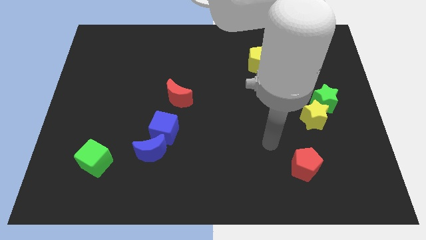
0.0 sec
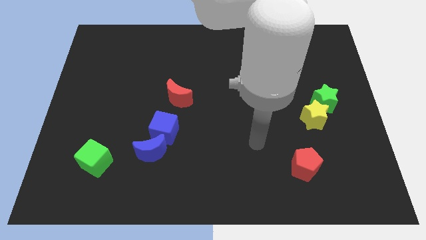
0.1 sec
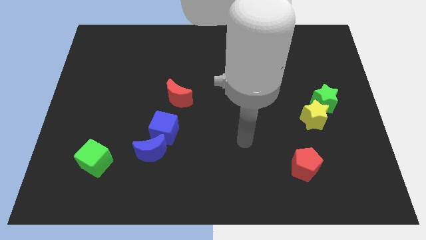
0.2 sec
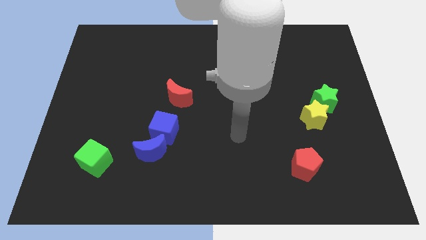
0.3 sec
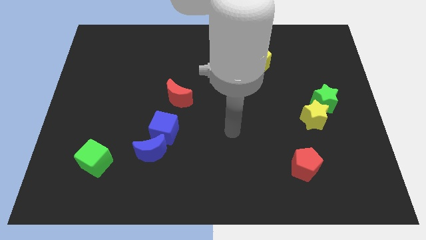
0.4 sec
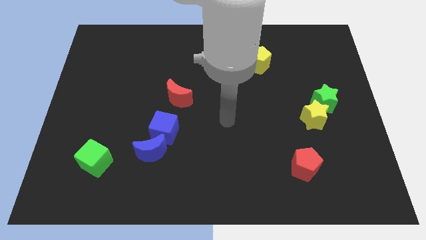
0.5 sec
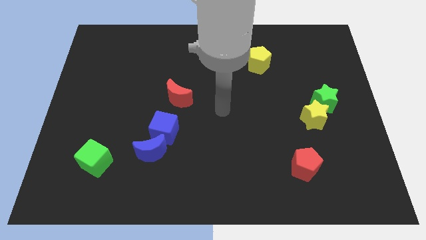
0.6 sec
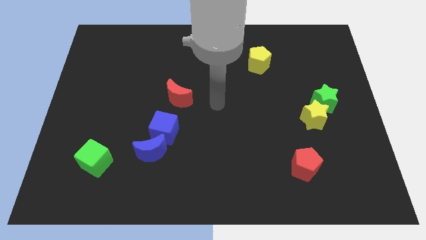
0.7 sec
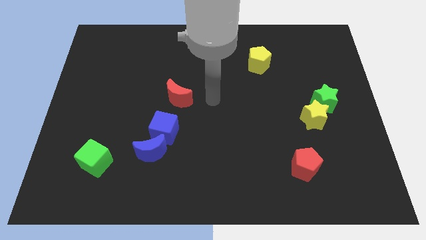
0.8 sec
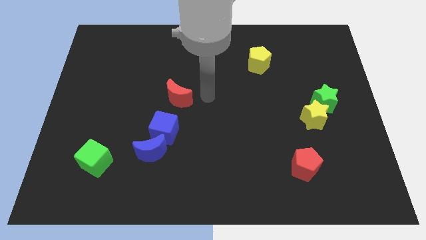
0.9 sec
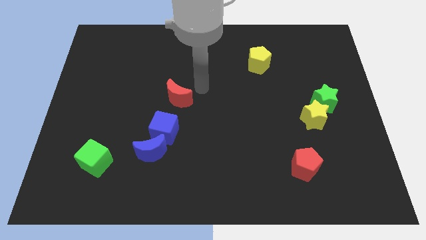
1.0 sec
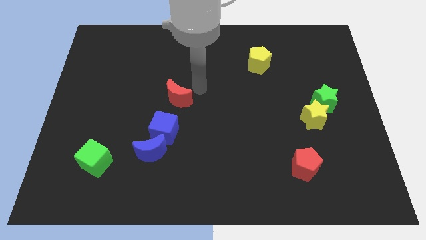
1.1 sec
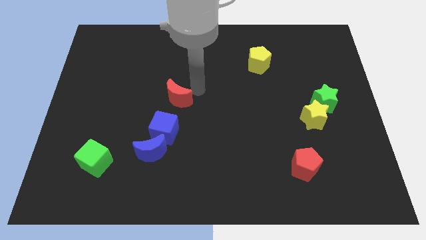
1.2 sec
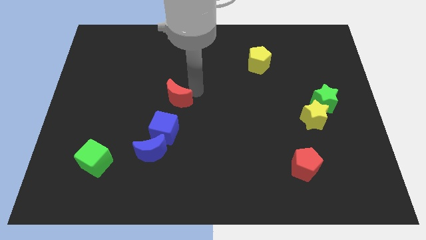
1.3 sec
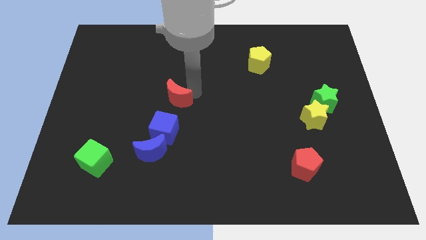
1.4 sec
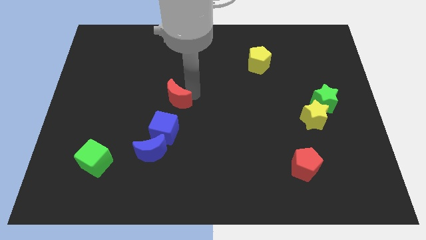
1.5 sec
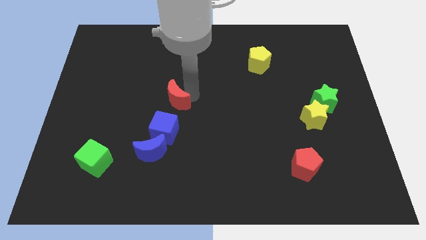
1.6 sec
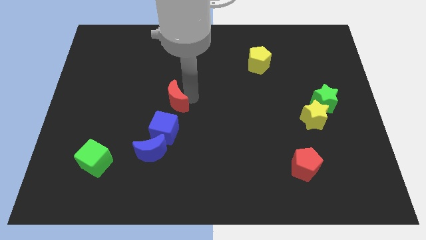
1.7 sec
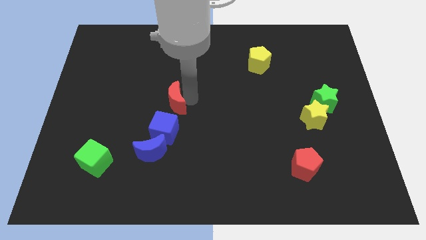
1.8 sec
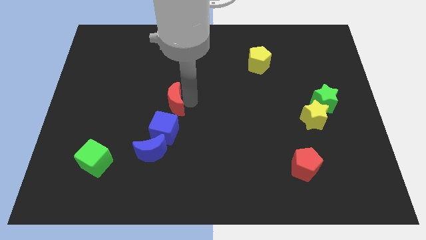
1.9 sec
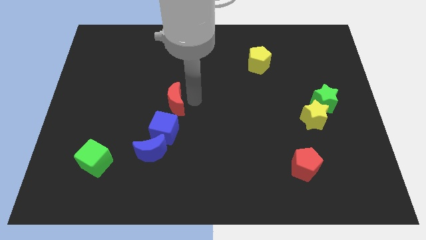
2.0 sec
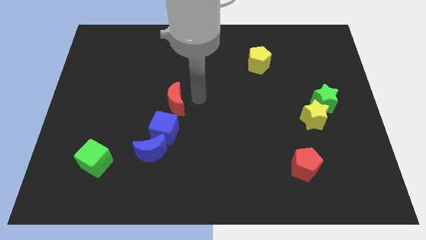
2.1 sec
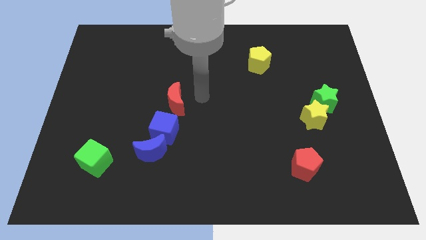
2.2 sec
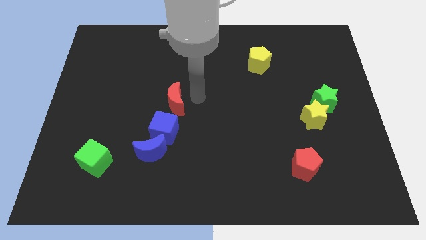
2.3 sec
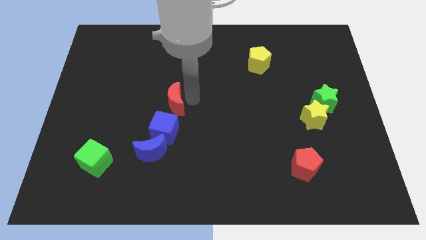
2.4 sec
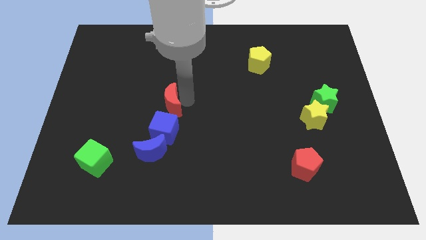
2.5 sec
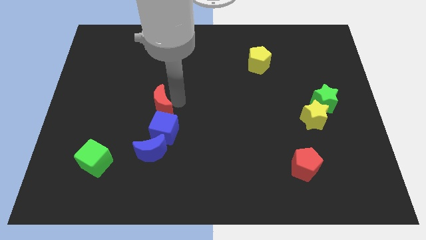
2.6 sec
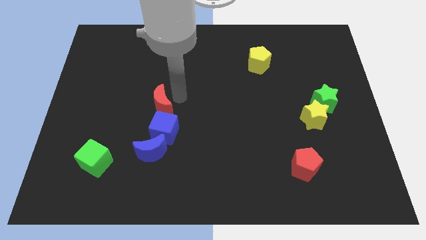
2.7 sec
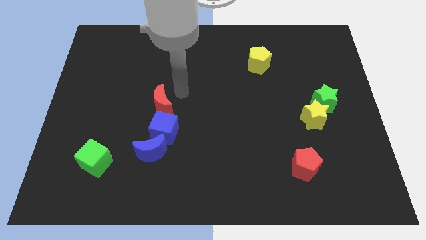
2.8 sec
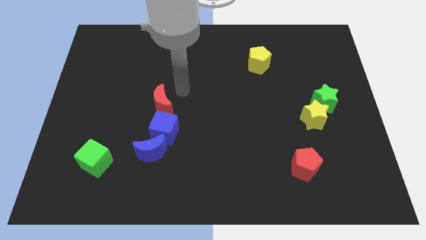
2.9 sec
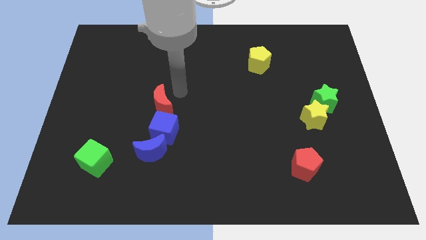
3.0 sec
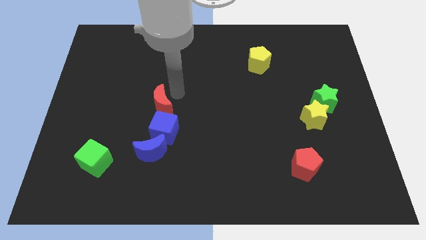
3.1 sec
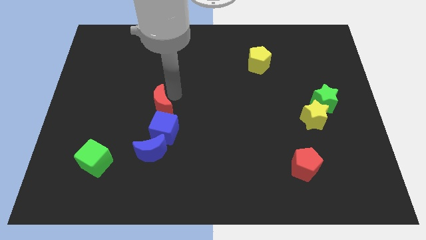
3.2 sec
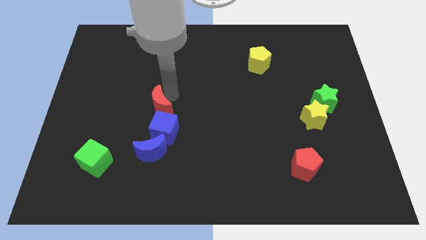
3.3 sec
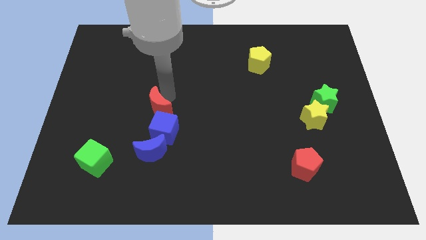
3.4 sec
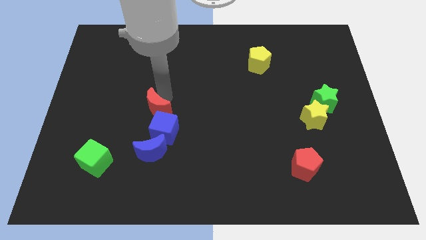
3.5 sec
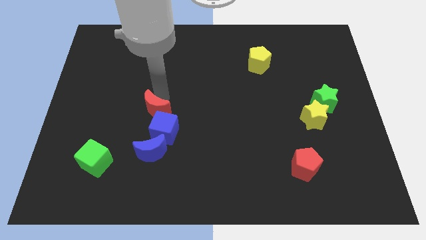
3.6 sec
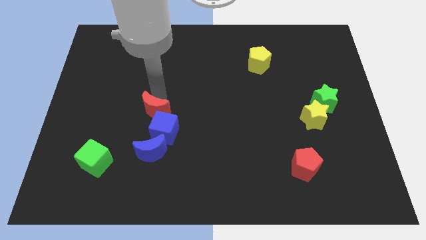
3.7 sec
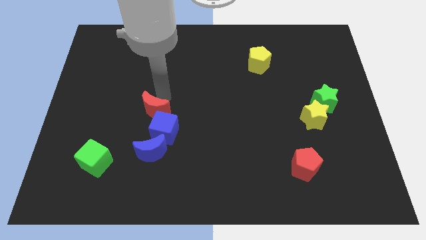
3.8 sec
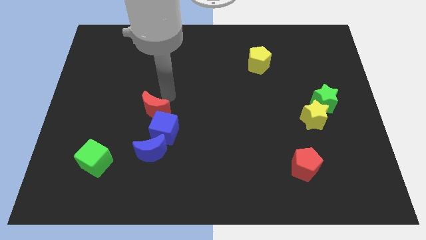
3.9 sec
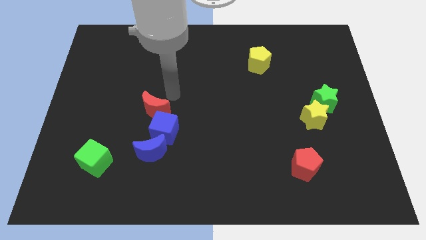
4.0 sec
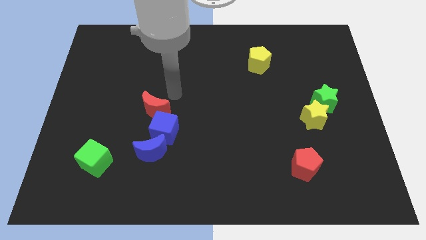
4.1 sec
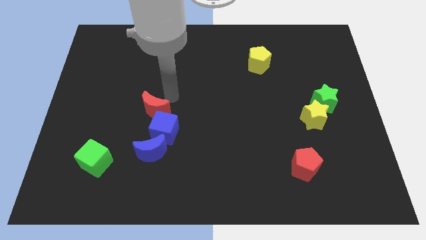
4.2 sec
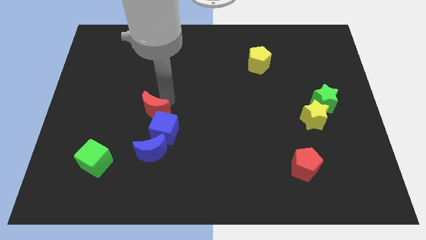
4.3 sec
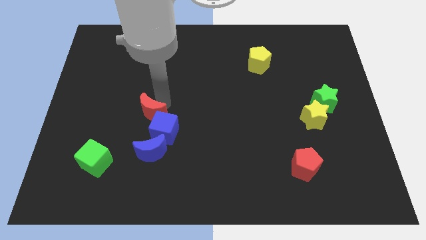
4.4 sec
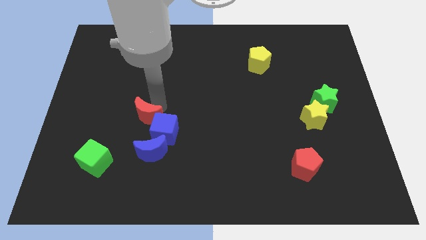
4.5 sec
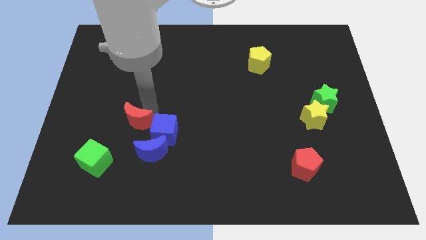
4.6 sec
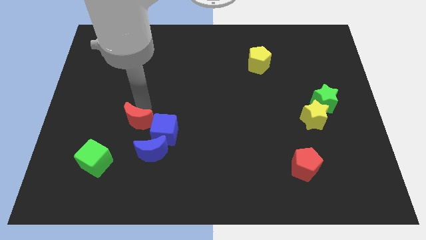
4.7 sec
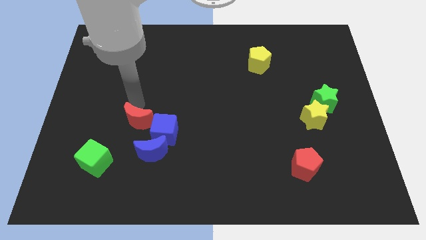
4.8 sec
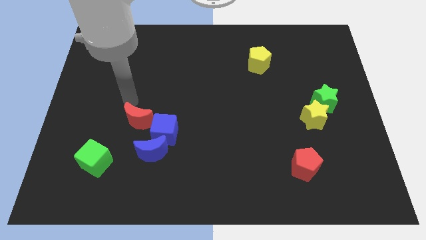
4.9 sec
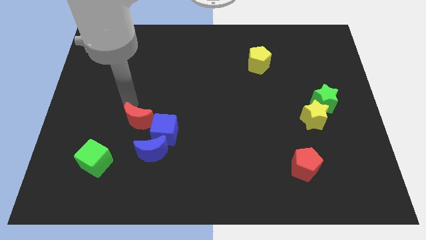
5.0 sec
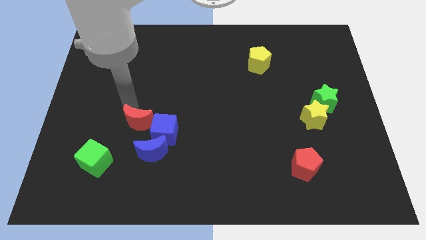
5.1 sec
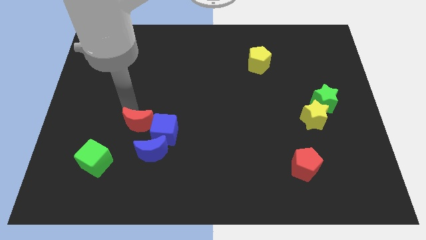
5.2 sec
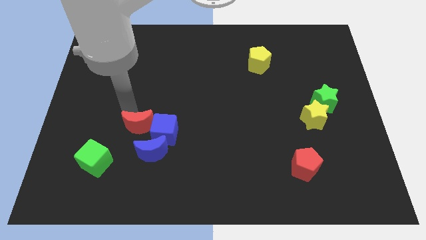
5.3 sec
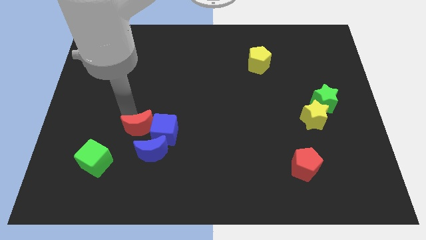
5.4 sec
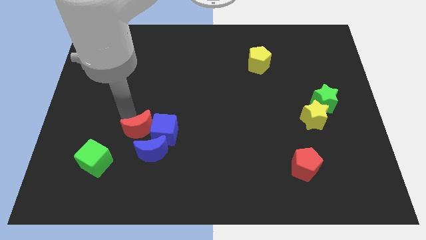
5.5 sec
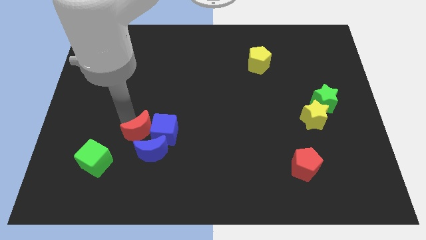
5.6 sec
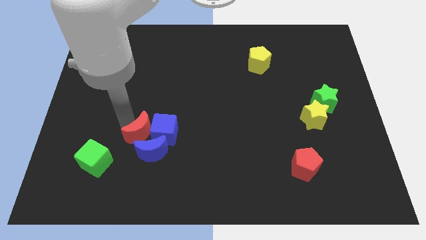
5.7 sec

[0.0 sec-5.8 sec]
slide the red moon towards the blue moon

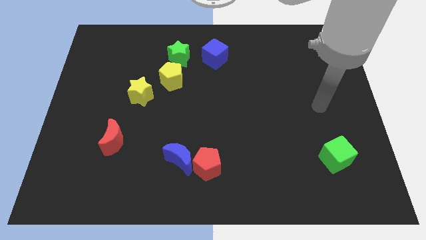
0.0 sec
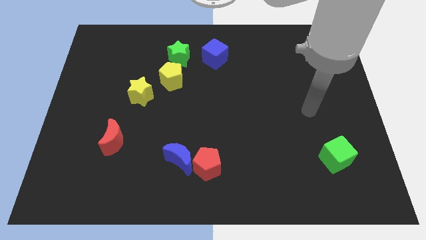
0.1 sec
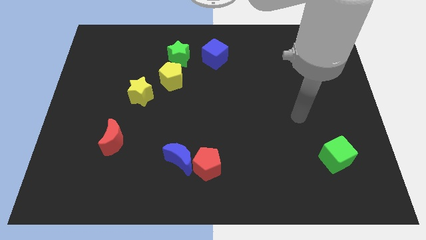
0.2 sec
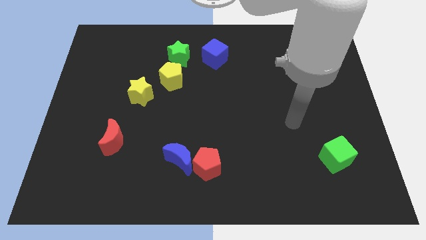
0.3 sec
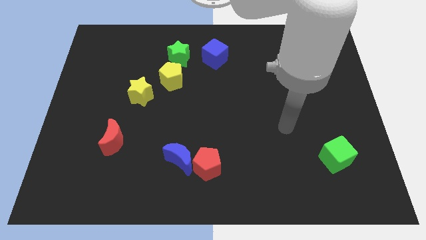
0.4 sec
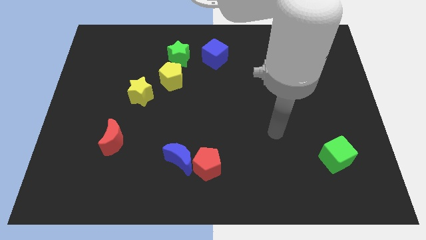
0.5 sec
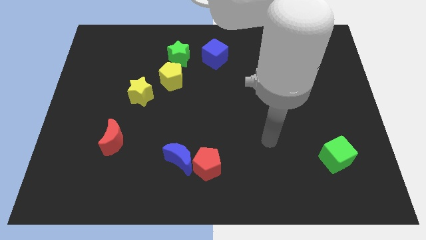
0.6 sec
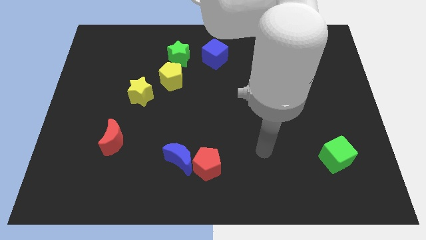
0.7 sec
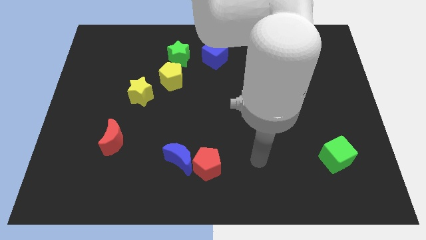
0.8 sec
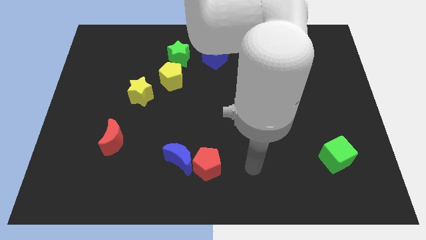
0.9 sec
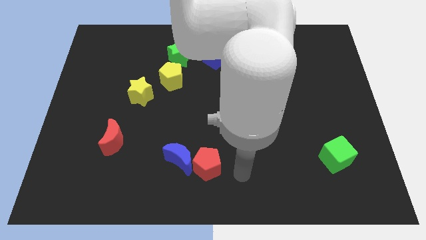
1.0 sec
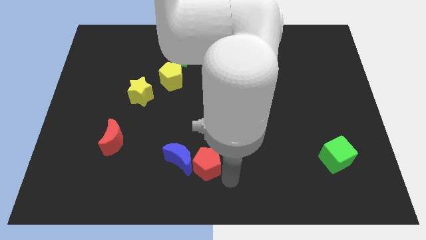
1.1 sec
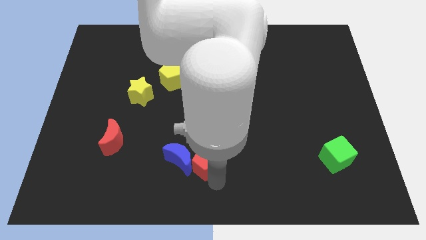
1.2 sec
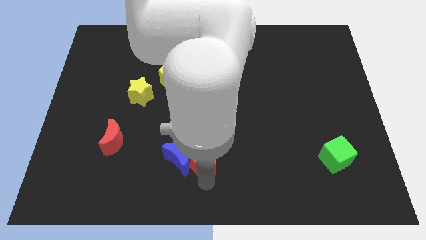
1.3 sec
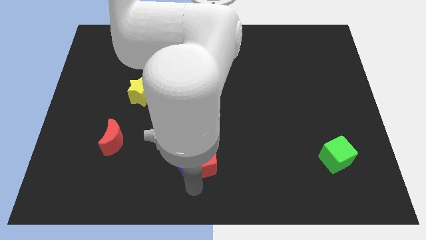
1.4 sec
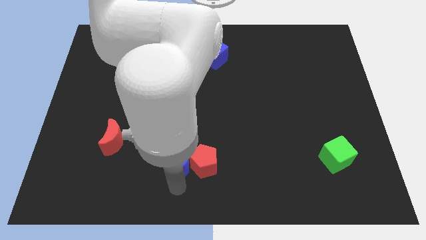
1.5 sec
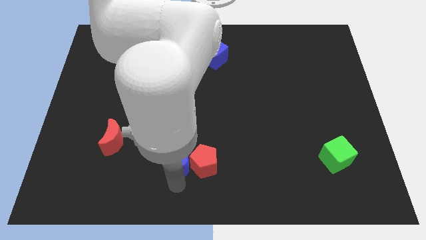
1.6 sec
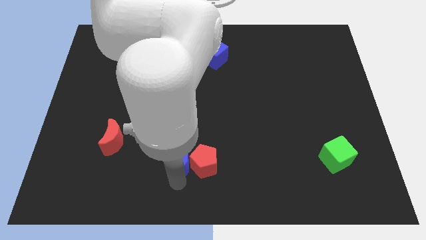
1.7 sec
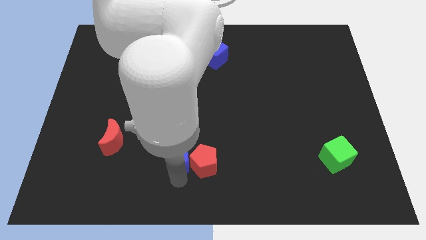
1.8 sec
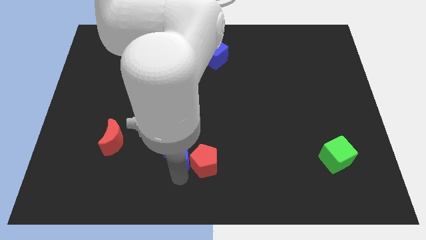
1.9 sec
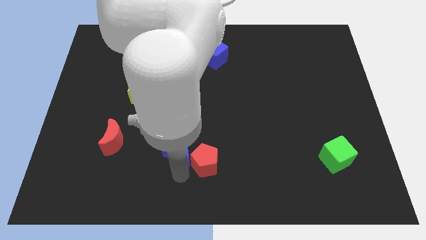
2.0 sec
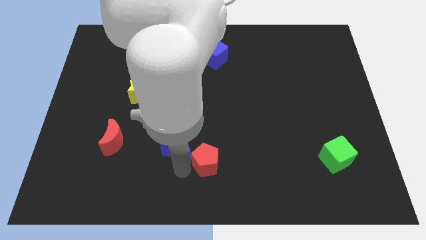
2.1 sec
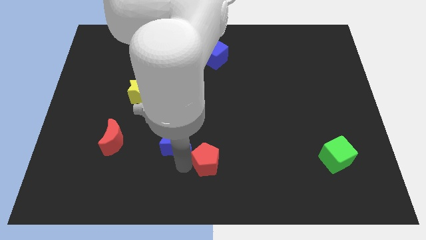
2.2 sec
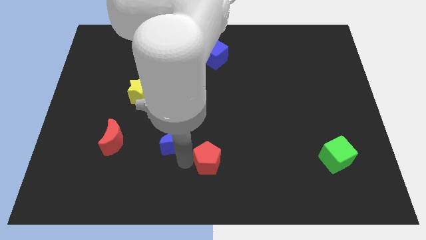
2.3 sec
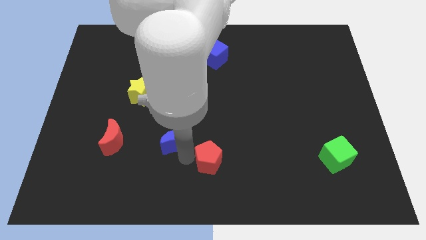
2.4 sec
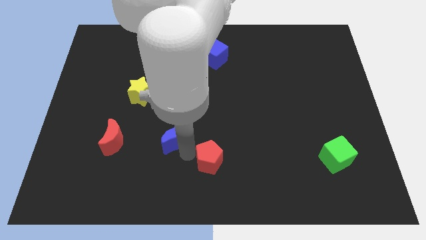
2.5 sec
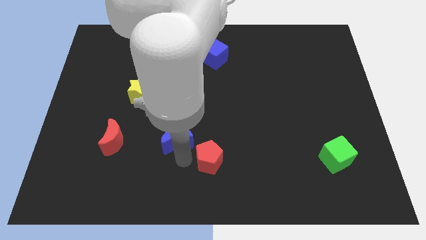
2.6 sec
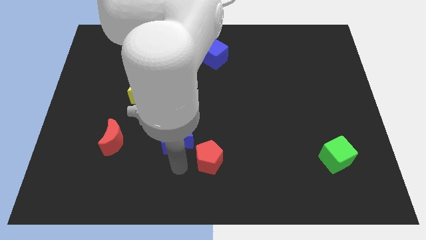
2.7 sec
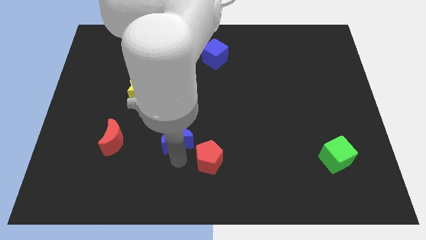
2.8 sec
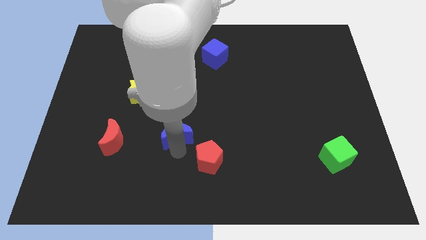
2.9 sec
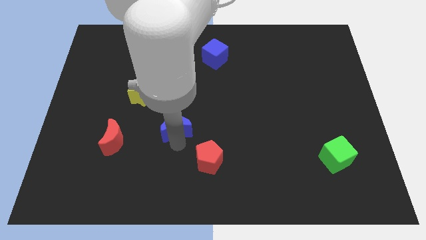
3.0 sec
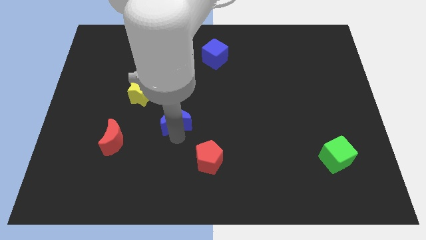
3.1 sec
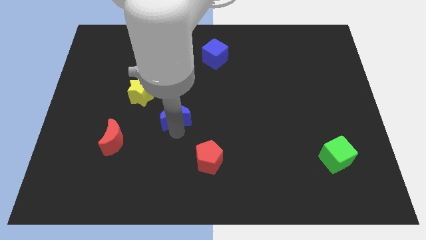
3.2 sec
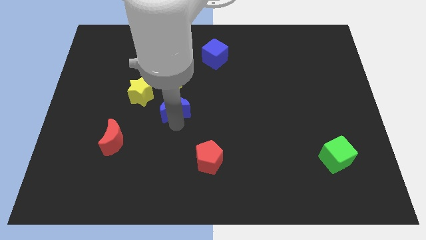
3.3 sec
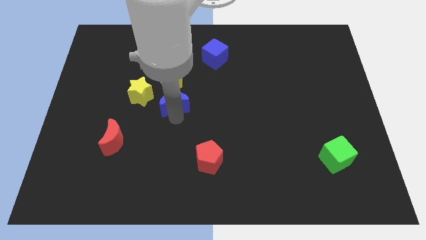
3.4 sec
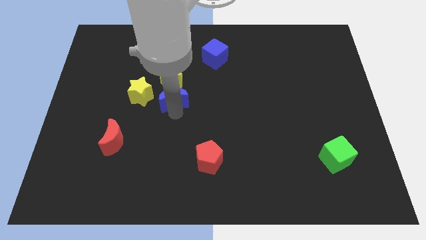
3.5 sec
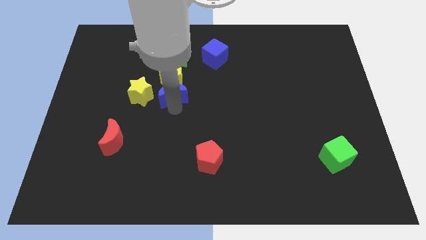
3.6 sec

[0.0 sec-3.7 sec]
slide the blue moon close to the yellow pentagon
